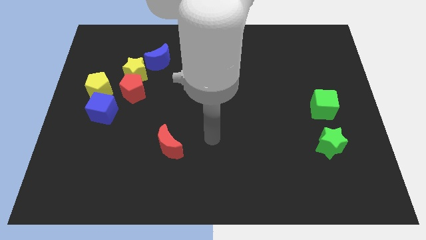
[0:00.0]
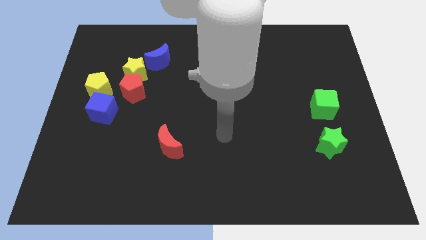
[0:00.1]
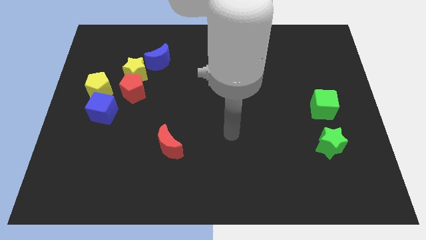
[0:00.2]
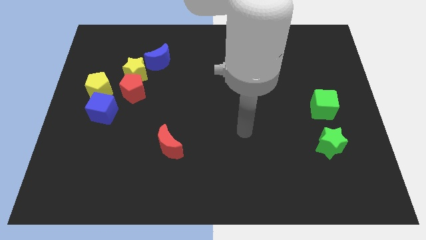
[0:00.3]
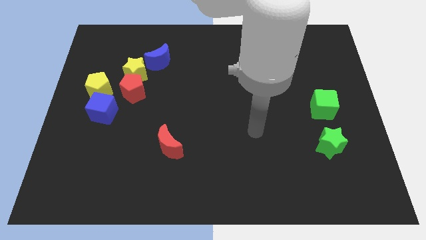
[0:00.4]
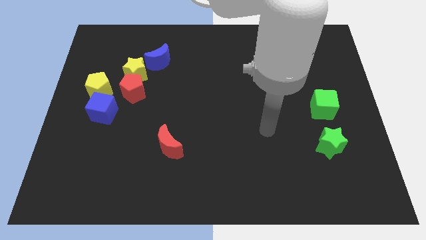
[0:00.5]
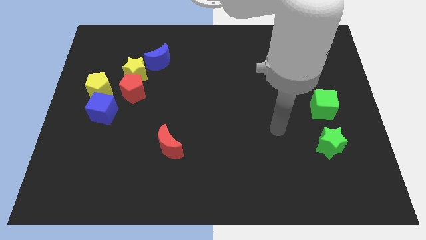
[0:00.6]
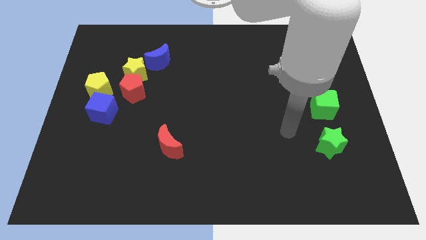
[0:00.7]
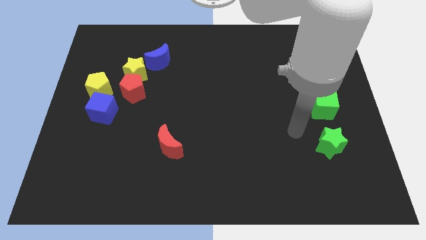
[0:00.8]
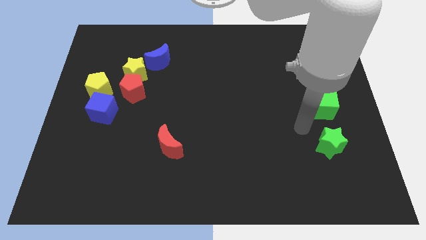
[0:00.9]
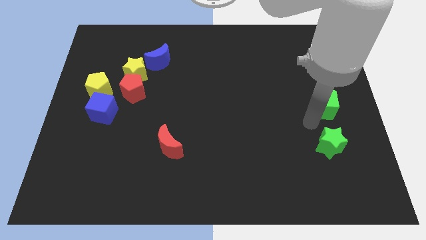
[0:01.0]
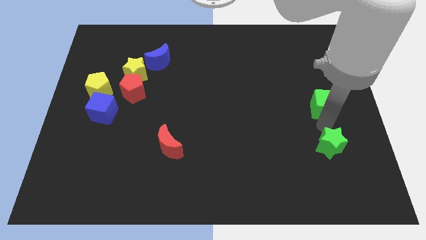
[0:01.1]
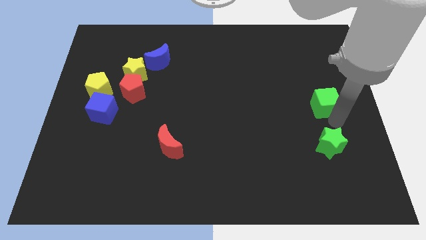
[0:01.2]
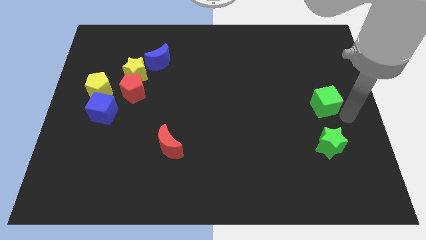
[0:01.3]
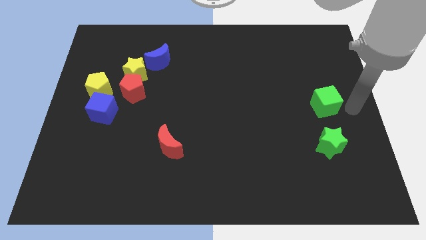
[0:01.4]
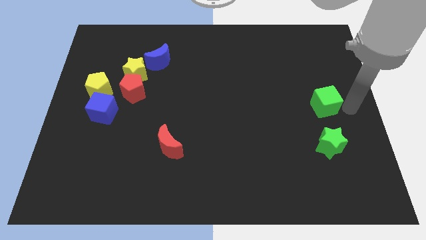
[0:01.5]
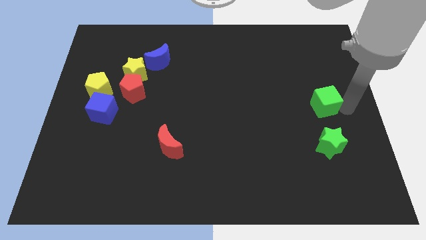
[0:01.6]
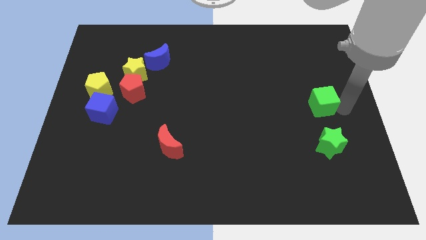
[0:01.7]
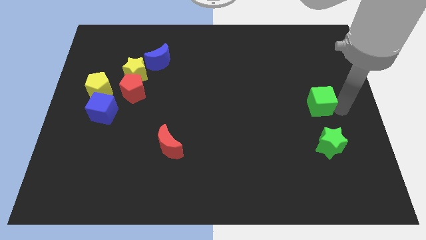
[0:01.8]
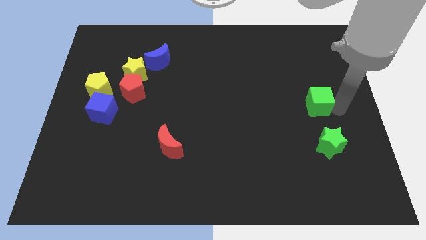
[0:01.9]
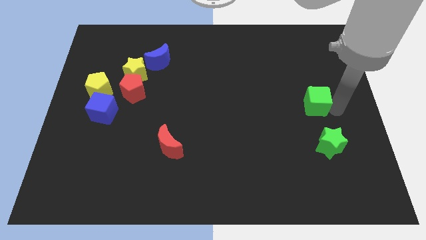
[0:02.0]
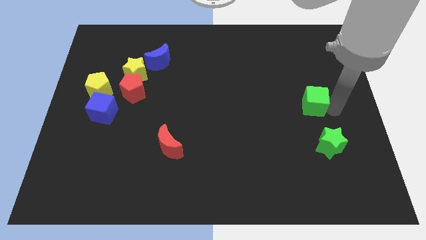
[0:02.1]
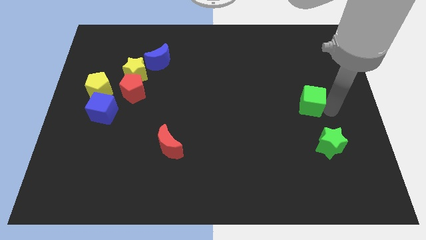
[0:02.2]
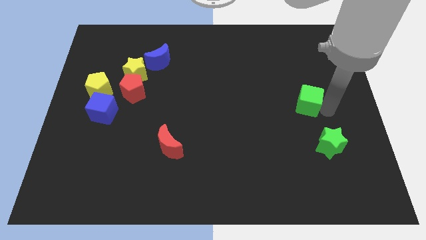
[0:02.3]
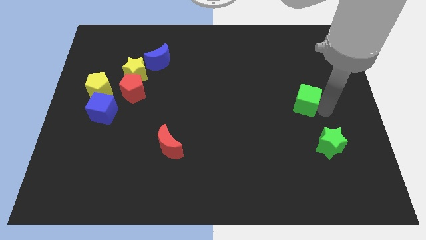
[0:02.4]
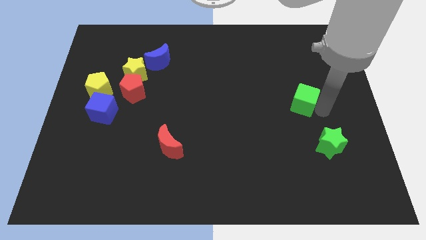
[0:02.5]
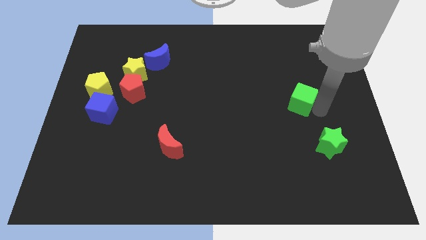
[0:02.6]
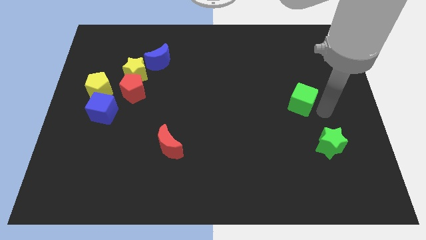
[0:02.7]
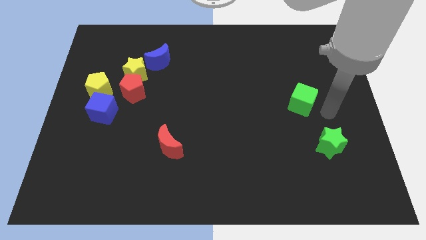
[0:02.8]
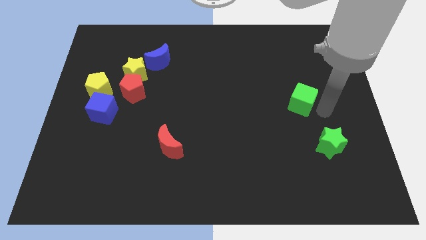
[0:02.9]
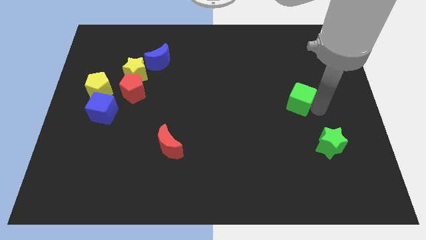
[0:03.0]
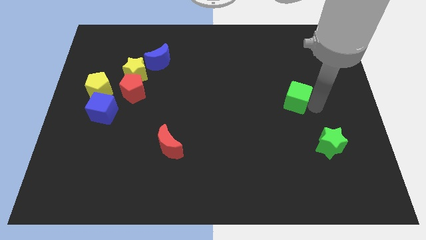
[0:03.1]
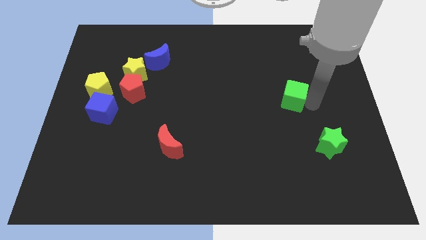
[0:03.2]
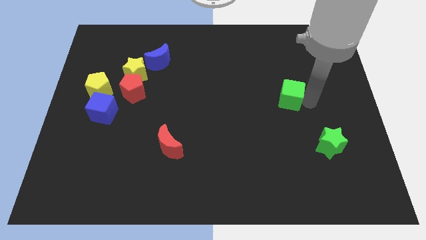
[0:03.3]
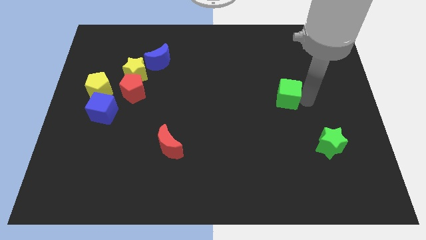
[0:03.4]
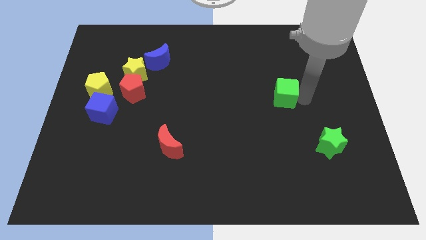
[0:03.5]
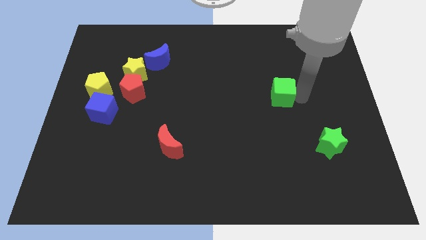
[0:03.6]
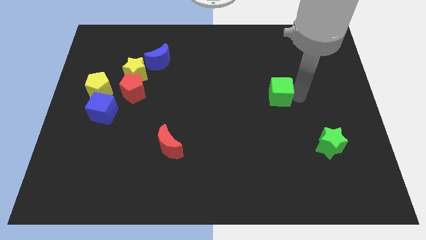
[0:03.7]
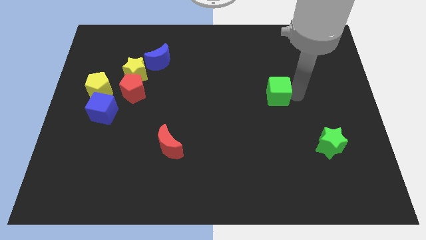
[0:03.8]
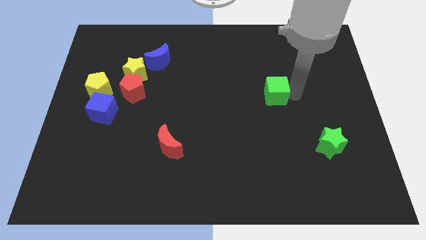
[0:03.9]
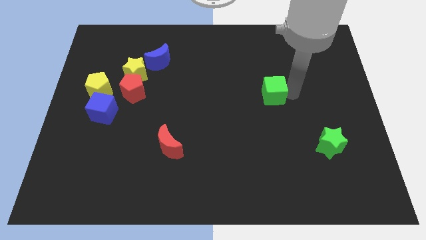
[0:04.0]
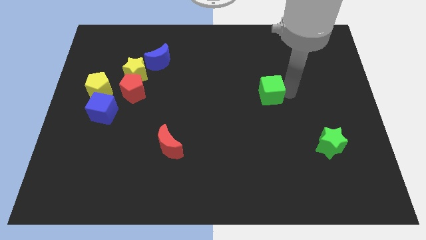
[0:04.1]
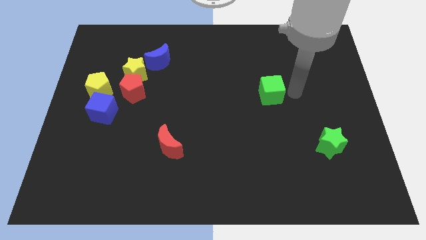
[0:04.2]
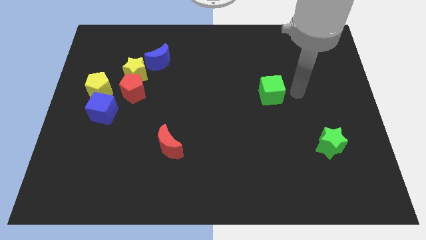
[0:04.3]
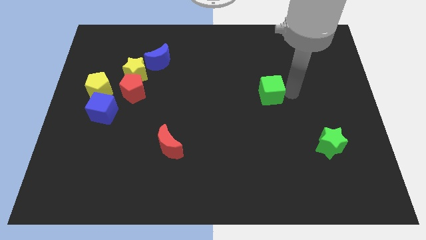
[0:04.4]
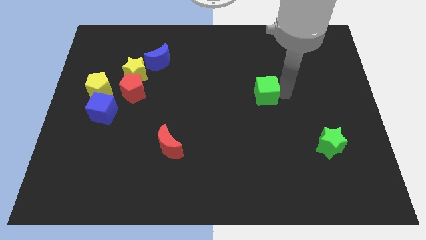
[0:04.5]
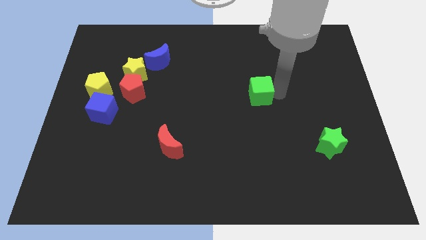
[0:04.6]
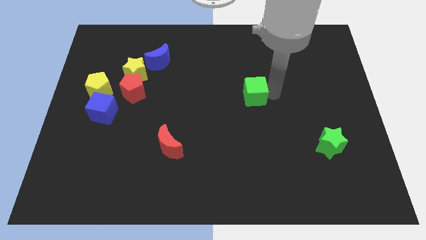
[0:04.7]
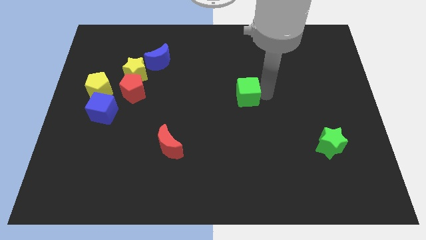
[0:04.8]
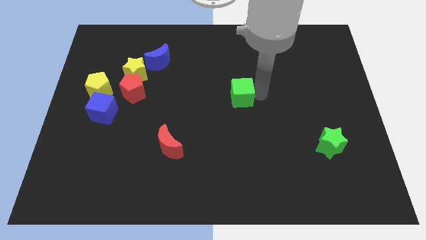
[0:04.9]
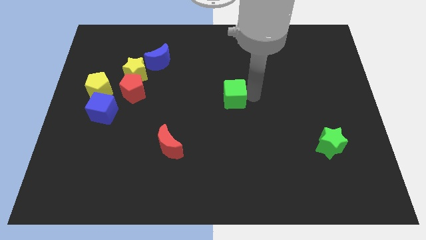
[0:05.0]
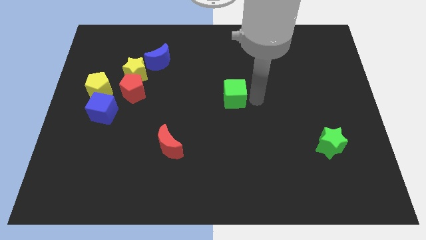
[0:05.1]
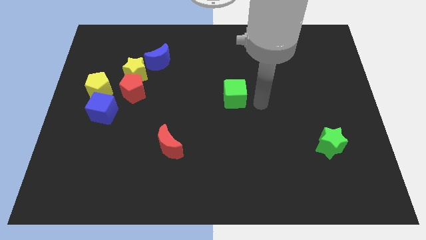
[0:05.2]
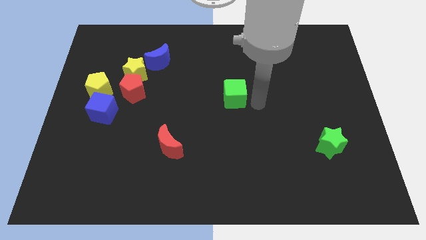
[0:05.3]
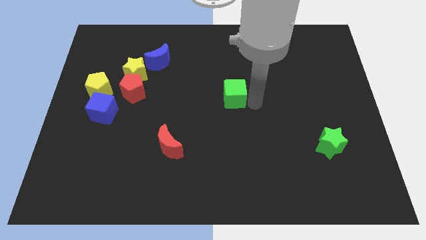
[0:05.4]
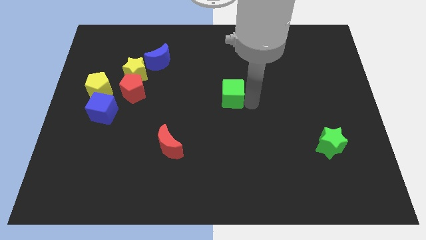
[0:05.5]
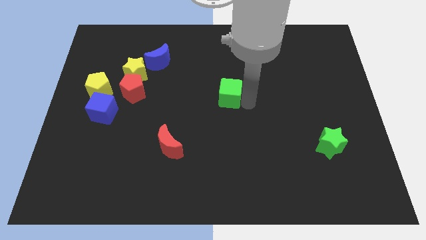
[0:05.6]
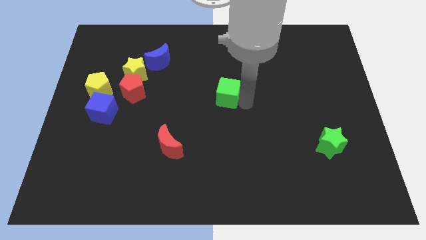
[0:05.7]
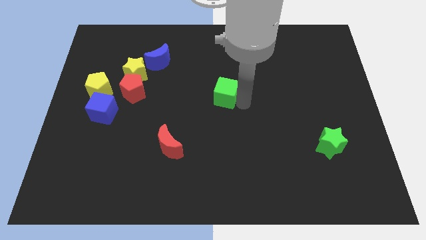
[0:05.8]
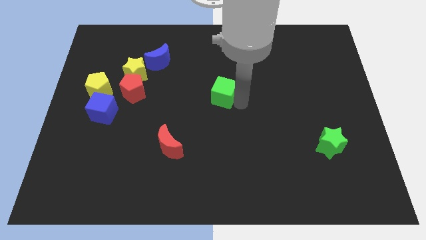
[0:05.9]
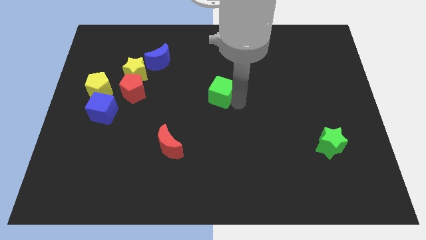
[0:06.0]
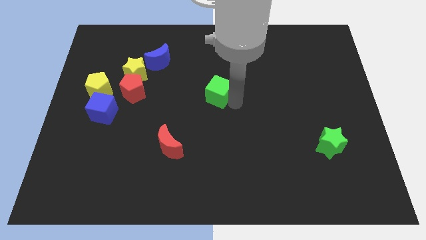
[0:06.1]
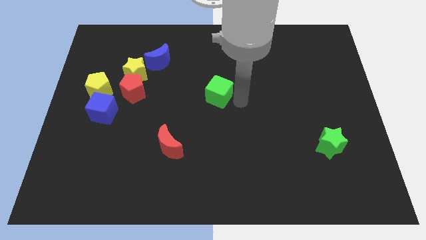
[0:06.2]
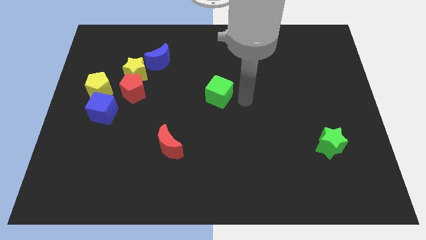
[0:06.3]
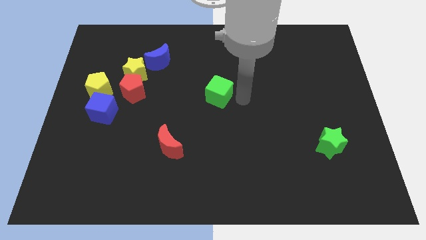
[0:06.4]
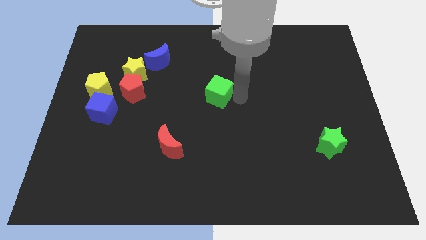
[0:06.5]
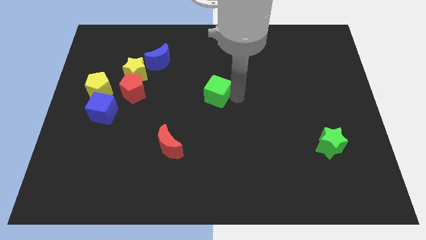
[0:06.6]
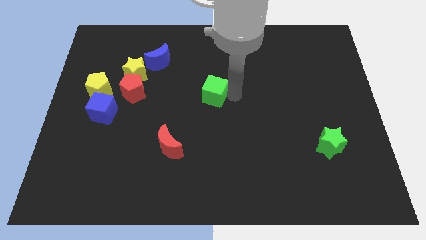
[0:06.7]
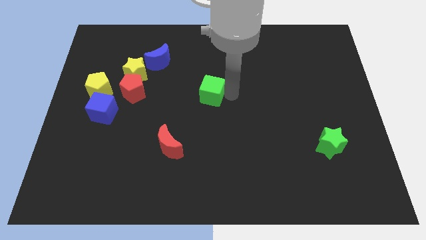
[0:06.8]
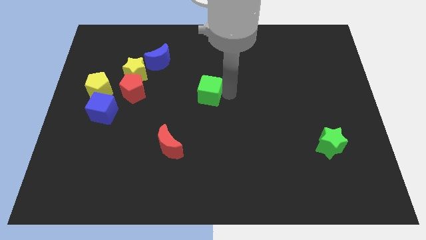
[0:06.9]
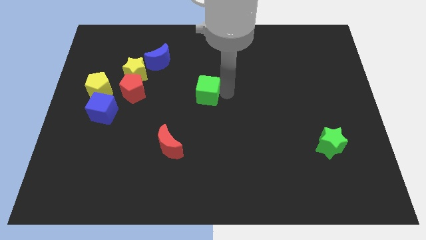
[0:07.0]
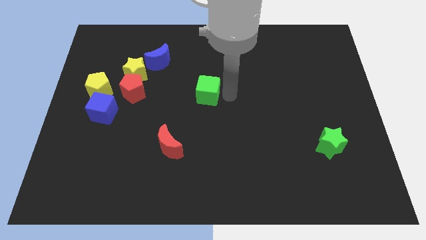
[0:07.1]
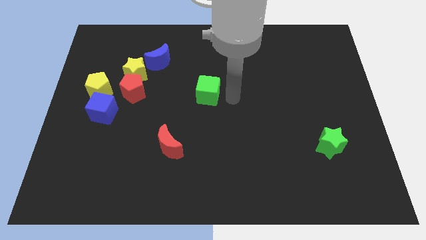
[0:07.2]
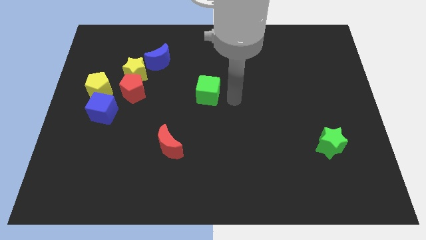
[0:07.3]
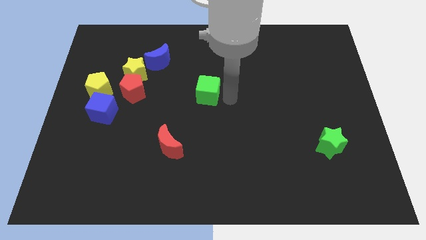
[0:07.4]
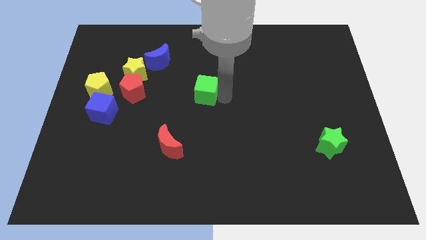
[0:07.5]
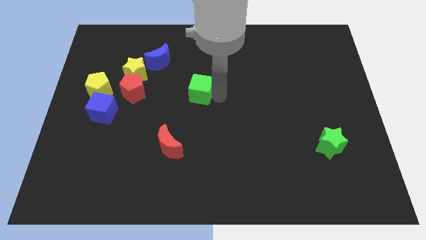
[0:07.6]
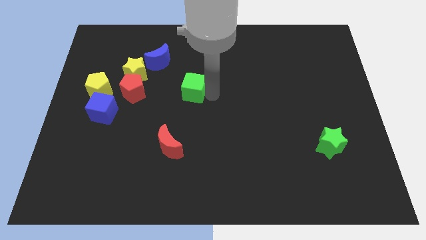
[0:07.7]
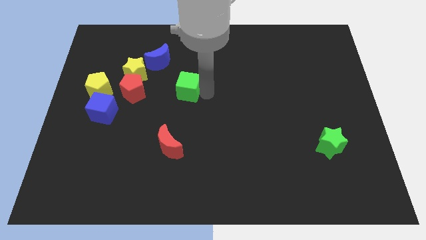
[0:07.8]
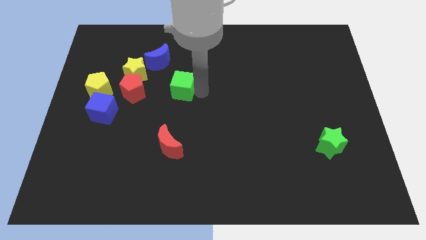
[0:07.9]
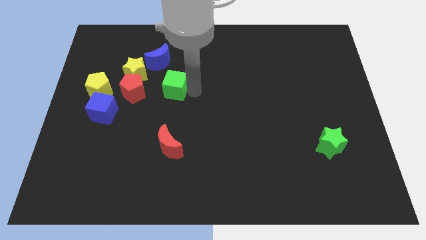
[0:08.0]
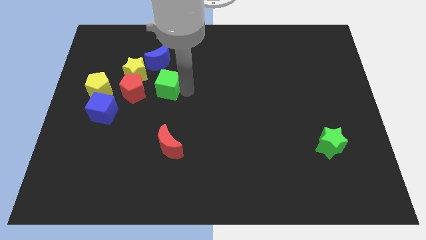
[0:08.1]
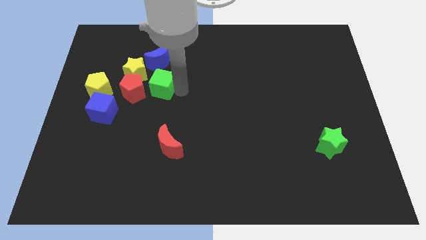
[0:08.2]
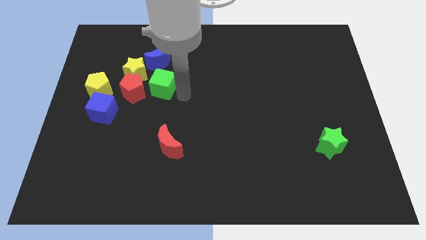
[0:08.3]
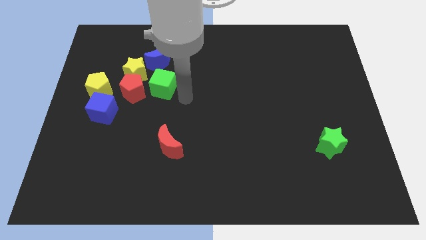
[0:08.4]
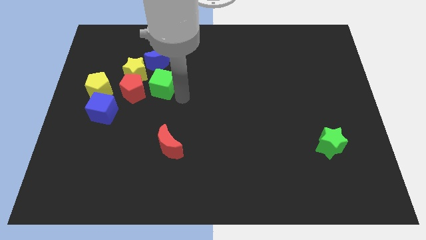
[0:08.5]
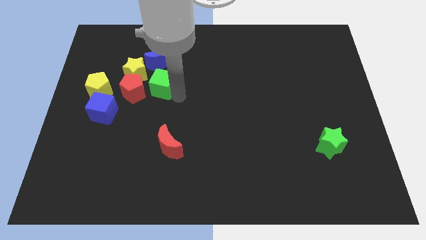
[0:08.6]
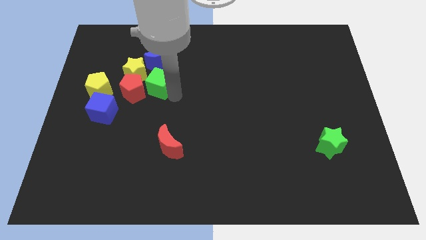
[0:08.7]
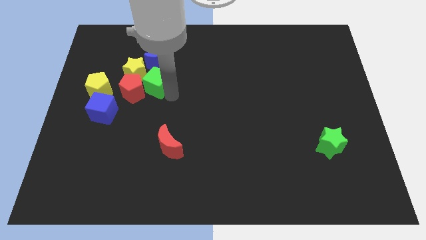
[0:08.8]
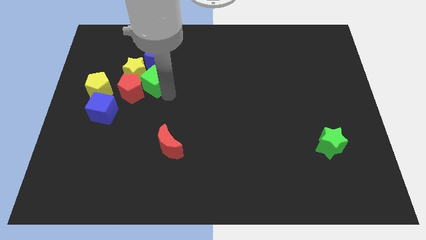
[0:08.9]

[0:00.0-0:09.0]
move the green cube to the yellow star
